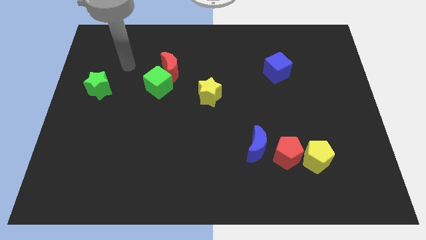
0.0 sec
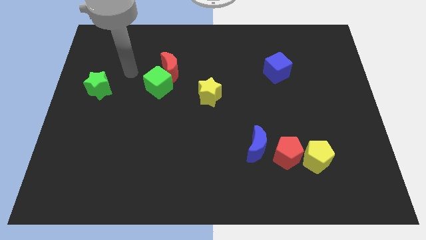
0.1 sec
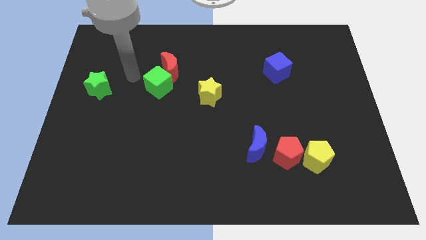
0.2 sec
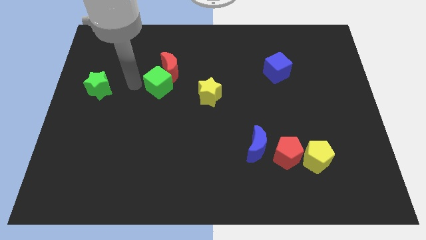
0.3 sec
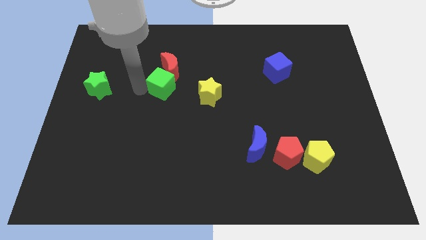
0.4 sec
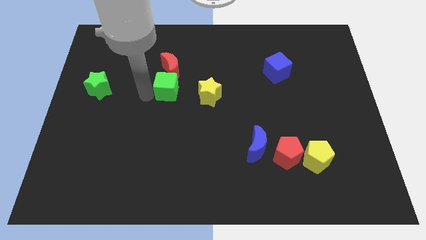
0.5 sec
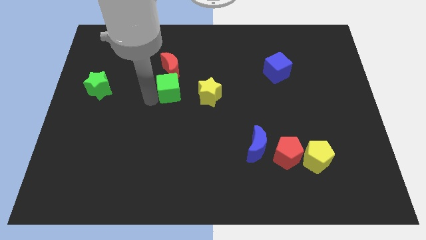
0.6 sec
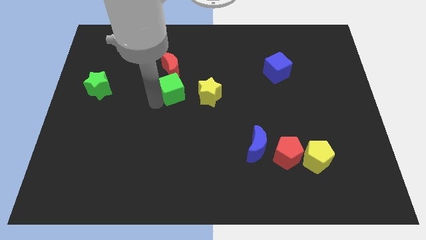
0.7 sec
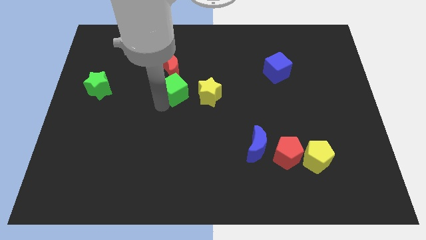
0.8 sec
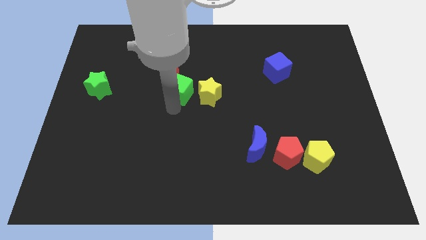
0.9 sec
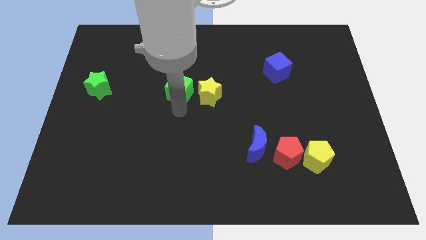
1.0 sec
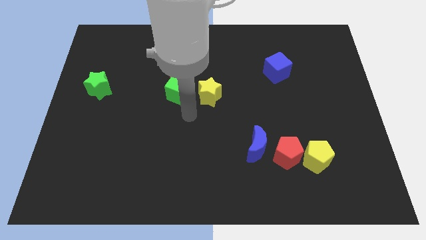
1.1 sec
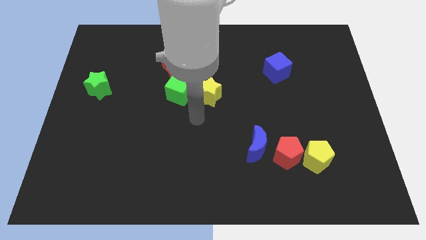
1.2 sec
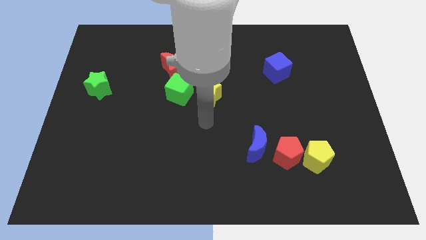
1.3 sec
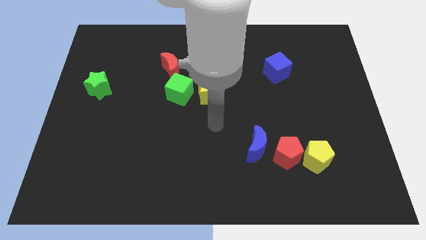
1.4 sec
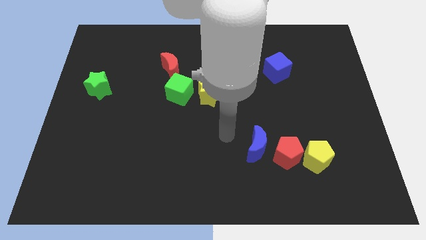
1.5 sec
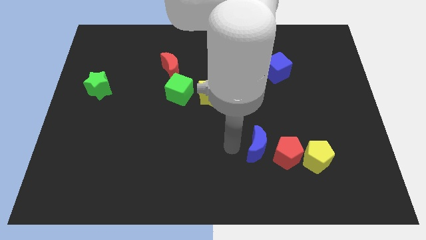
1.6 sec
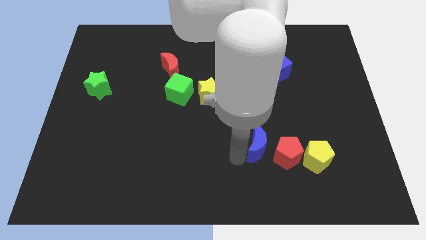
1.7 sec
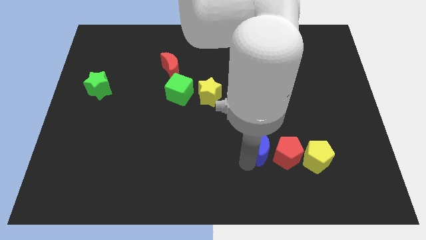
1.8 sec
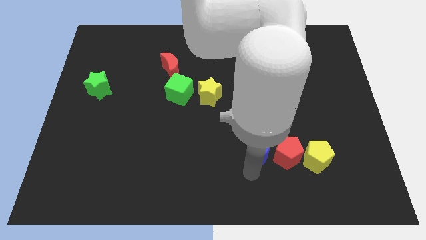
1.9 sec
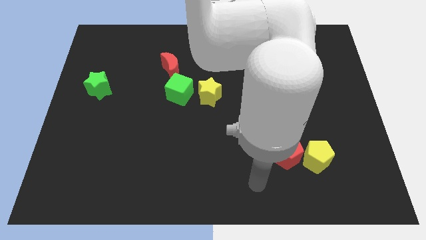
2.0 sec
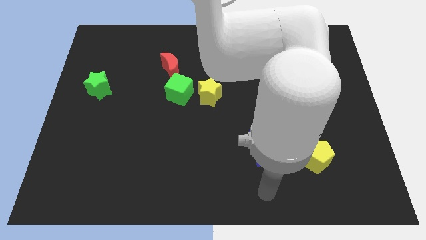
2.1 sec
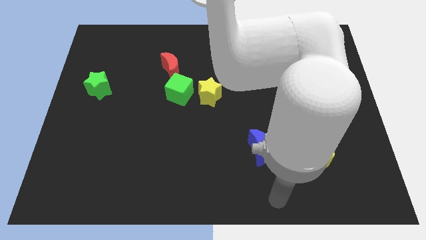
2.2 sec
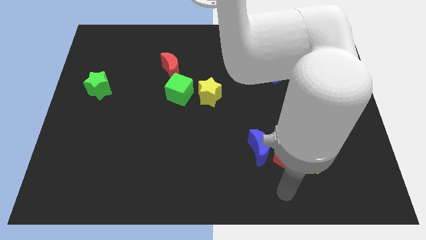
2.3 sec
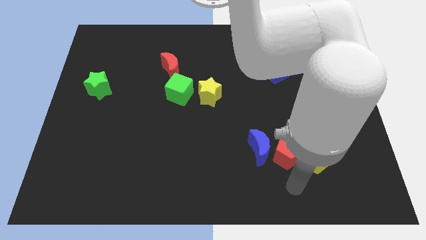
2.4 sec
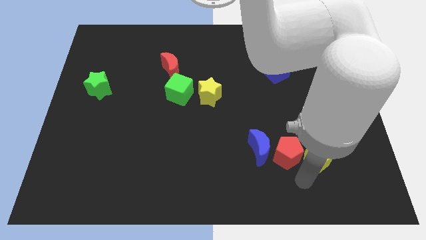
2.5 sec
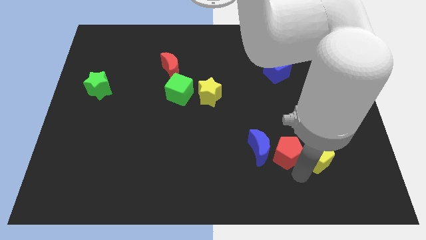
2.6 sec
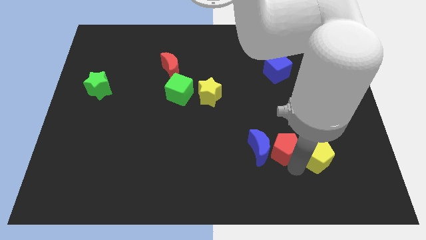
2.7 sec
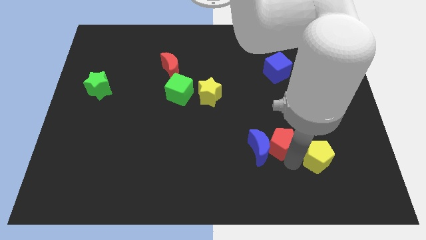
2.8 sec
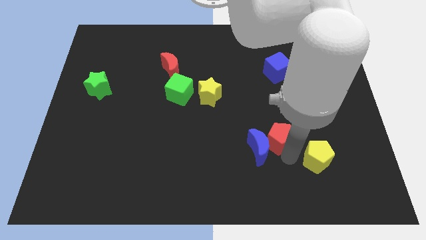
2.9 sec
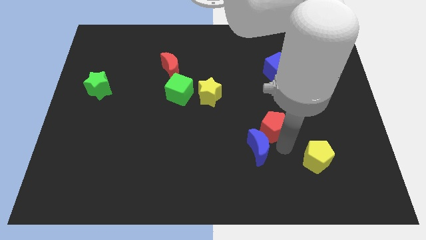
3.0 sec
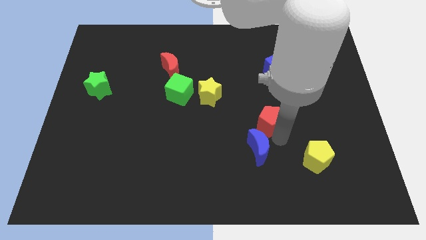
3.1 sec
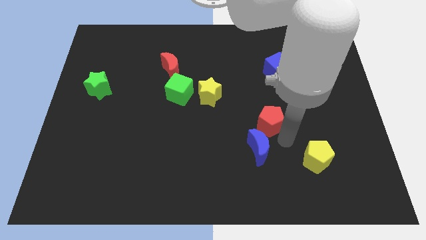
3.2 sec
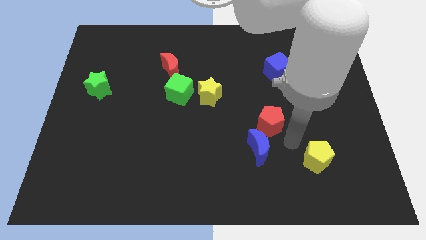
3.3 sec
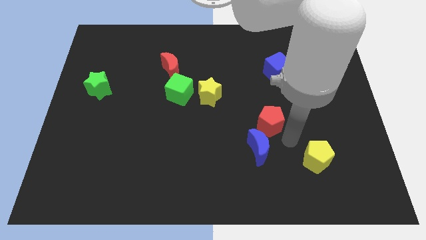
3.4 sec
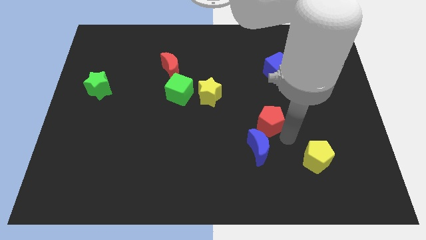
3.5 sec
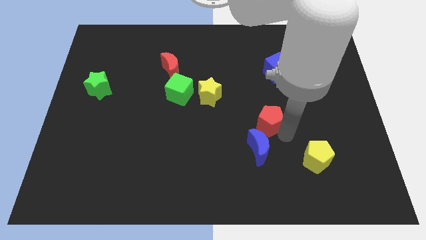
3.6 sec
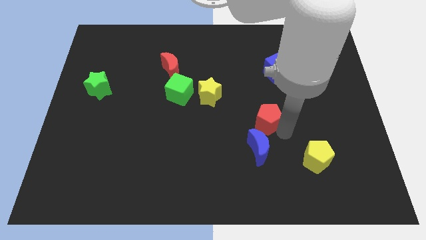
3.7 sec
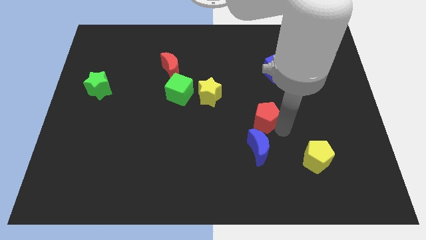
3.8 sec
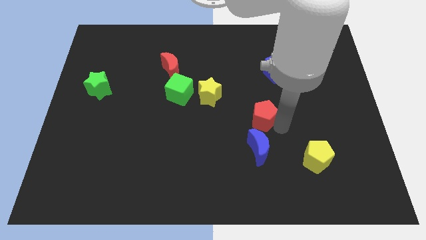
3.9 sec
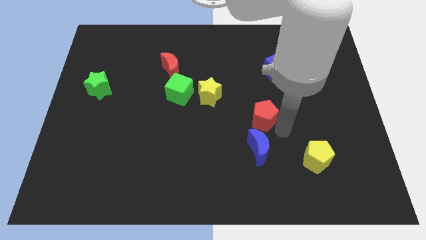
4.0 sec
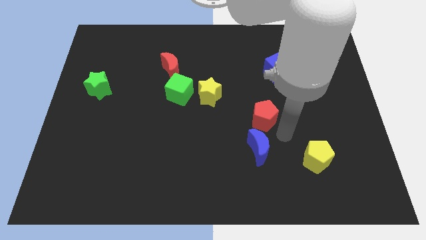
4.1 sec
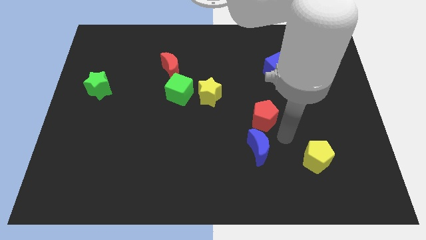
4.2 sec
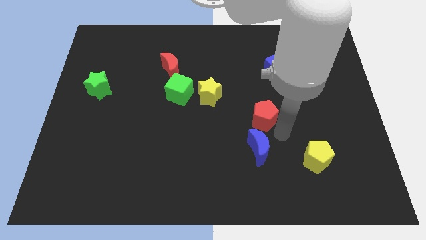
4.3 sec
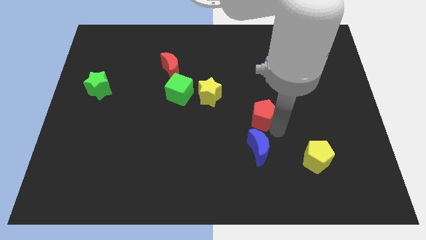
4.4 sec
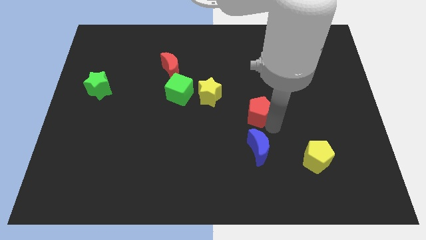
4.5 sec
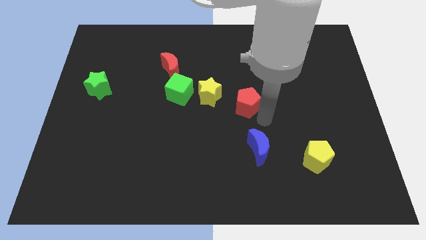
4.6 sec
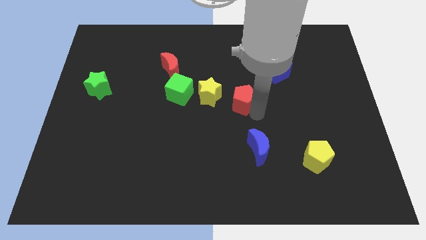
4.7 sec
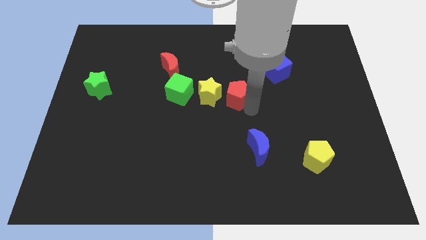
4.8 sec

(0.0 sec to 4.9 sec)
push the red pentagon to the right side of the green cube

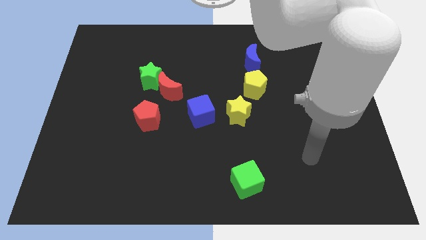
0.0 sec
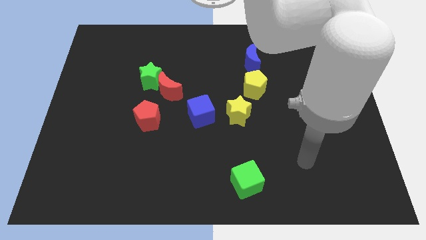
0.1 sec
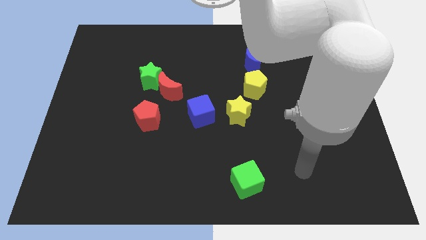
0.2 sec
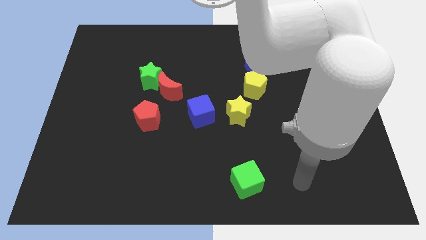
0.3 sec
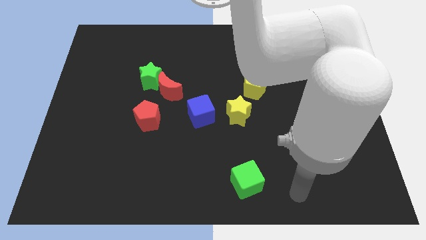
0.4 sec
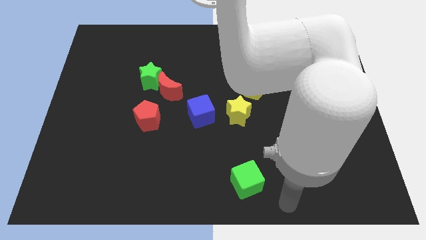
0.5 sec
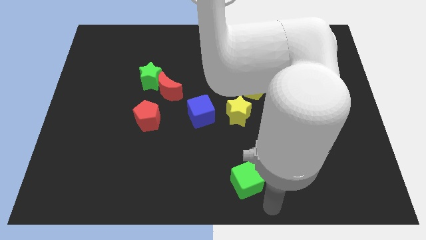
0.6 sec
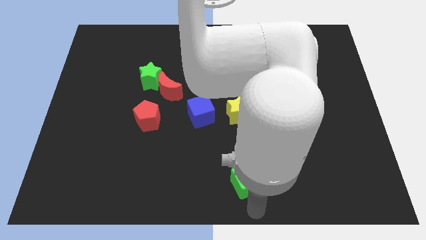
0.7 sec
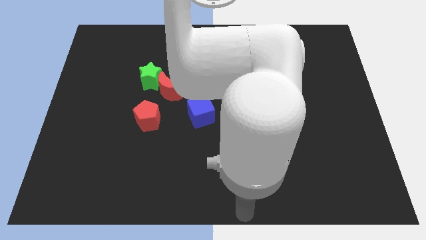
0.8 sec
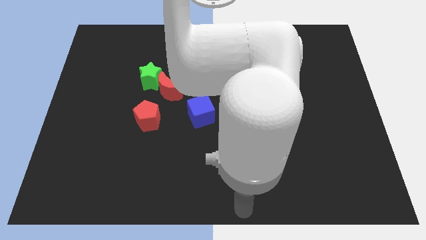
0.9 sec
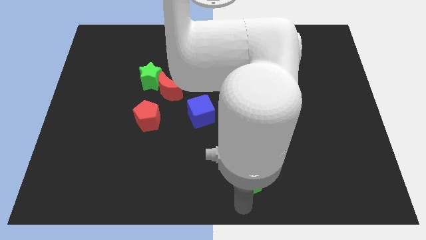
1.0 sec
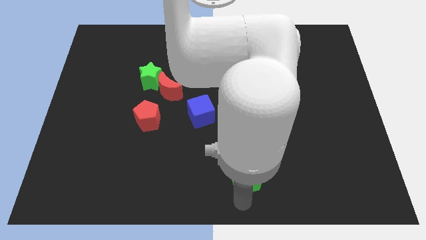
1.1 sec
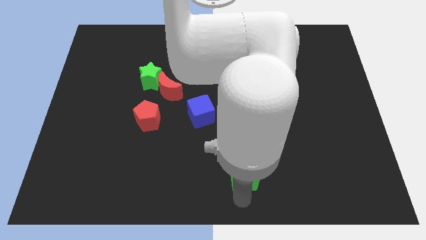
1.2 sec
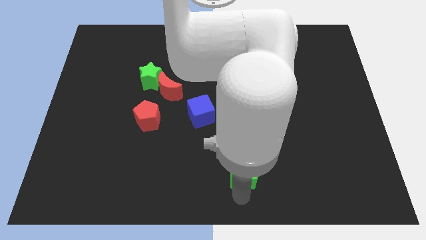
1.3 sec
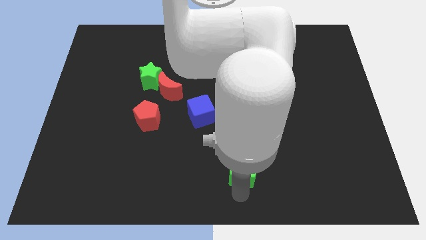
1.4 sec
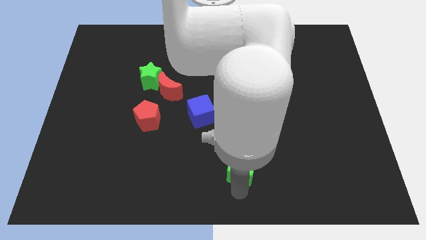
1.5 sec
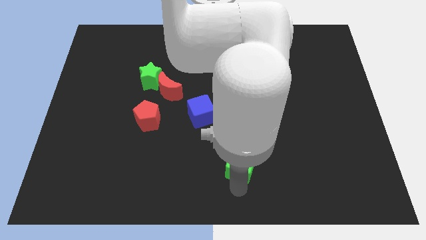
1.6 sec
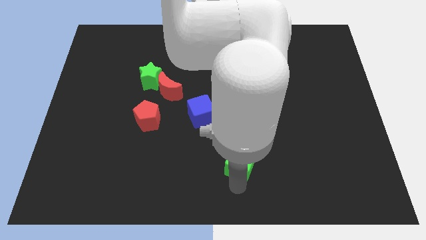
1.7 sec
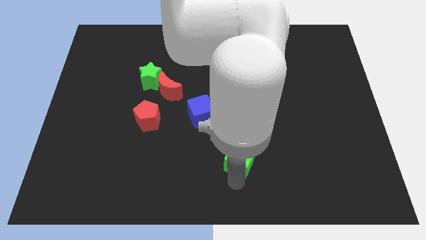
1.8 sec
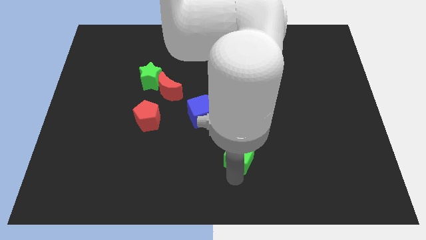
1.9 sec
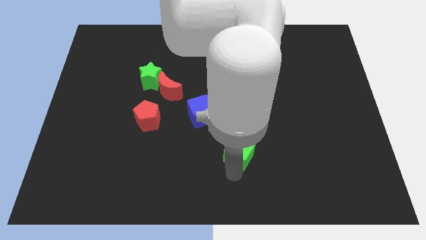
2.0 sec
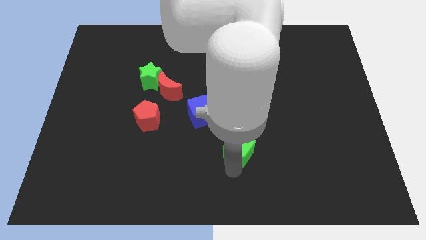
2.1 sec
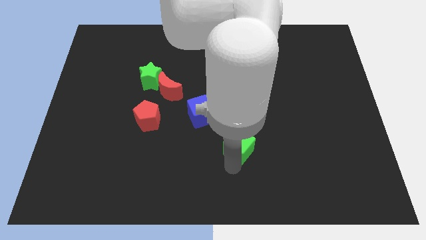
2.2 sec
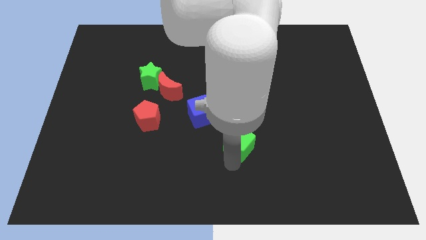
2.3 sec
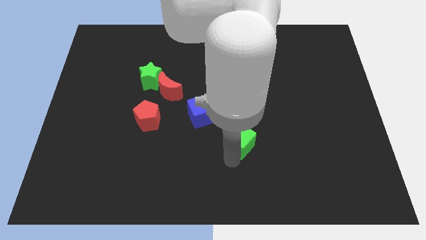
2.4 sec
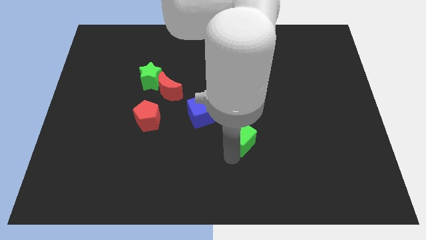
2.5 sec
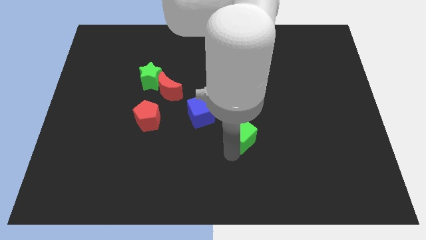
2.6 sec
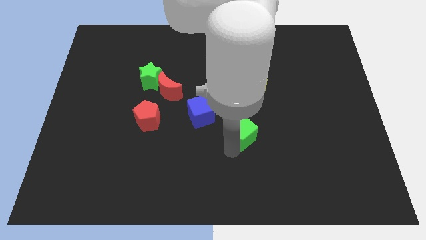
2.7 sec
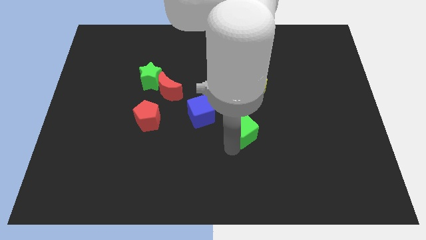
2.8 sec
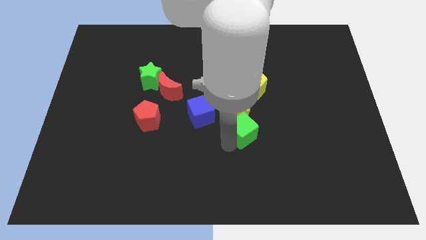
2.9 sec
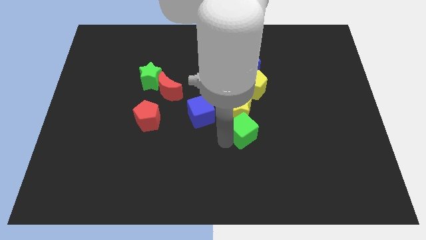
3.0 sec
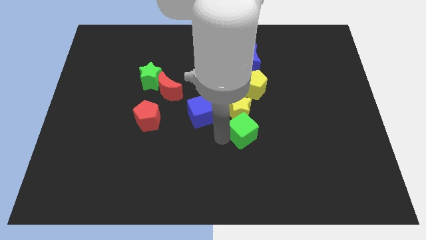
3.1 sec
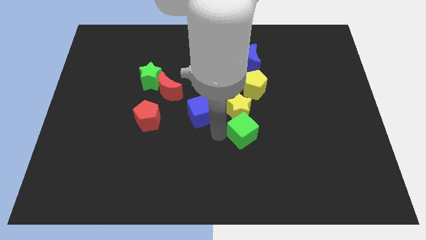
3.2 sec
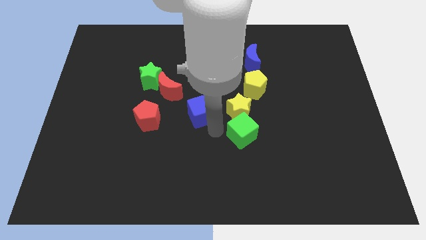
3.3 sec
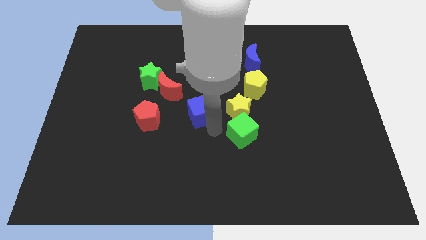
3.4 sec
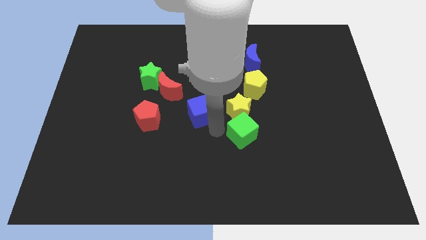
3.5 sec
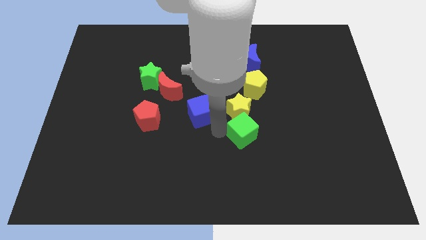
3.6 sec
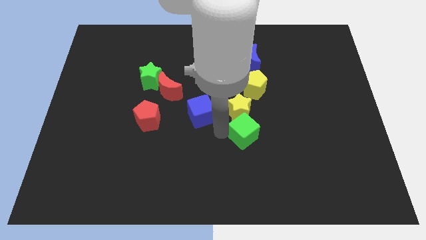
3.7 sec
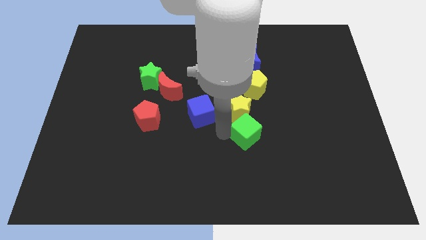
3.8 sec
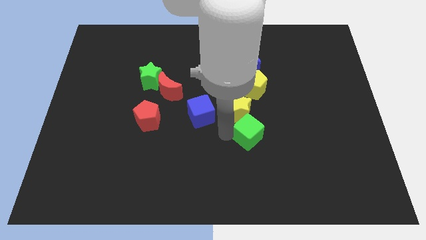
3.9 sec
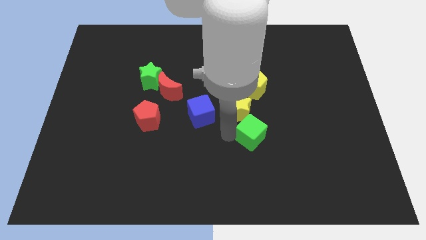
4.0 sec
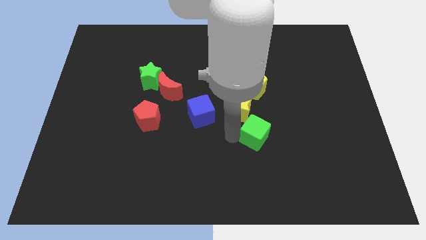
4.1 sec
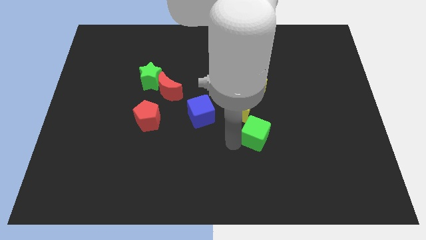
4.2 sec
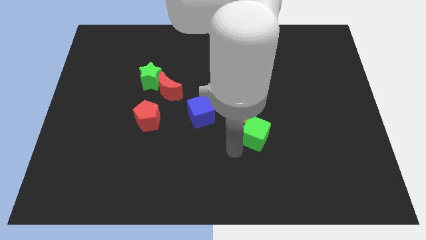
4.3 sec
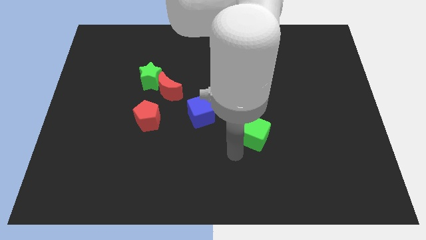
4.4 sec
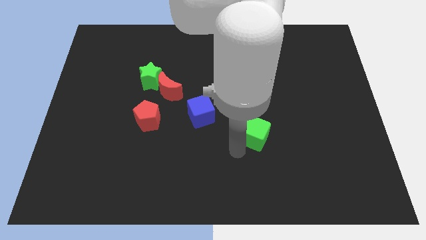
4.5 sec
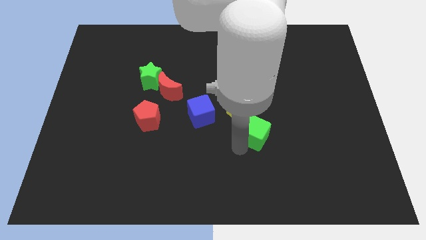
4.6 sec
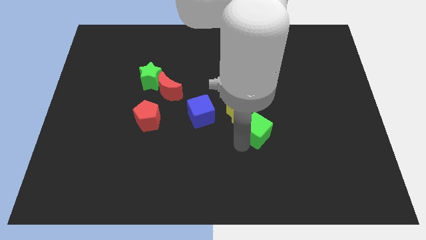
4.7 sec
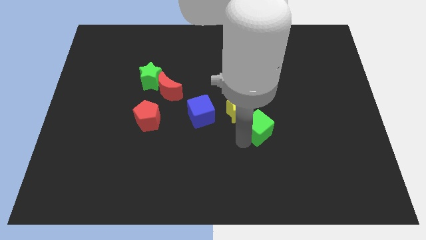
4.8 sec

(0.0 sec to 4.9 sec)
slide the green cube to the right side of the yellow star
